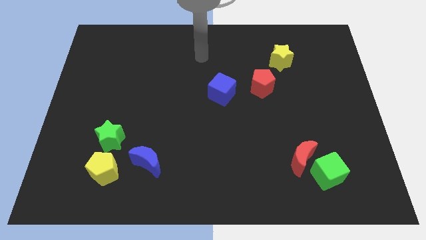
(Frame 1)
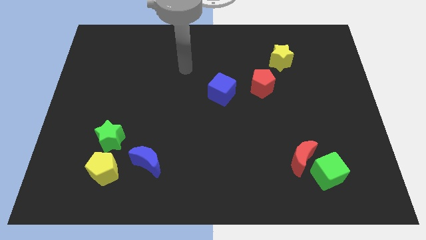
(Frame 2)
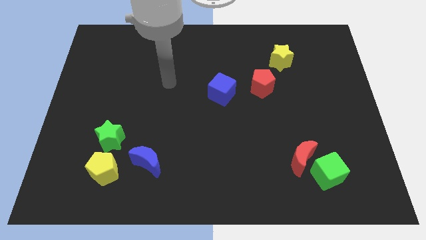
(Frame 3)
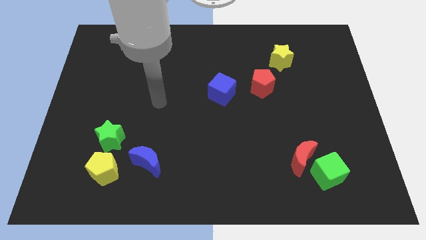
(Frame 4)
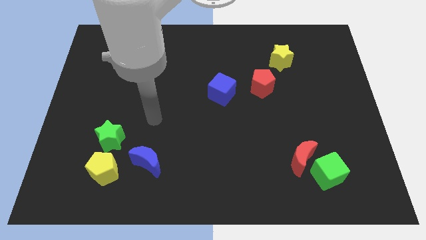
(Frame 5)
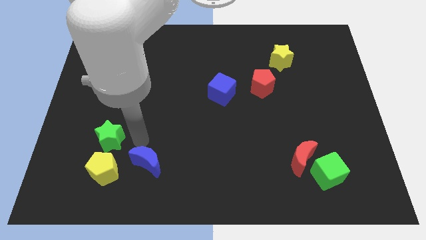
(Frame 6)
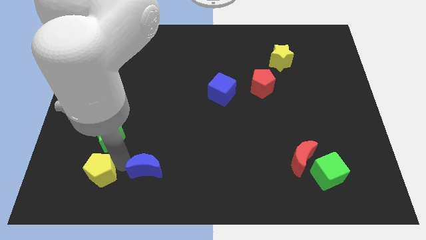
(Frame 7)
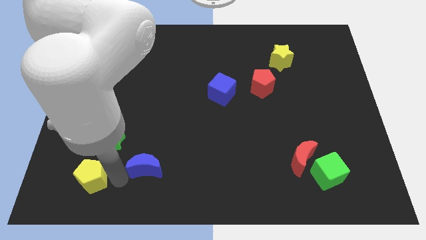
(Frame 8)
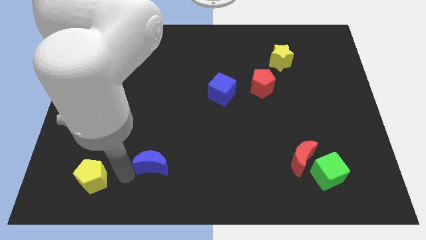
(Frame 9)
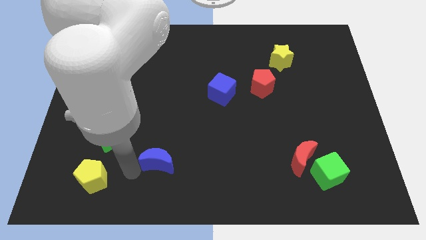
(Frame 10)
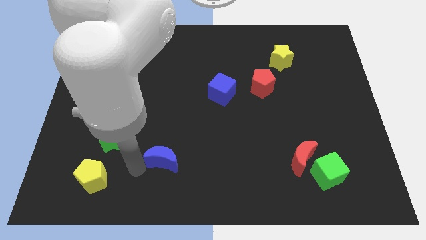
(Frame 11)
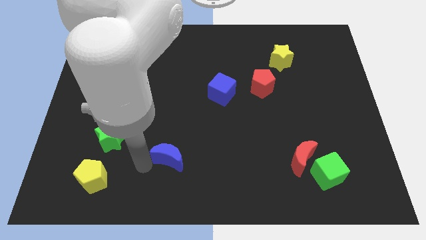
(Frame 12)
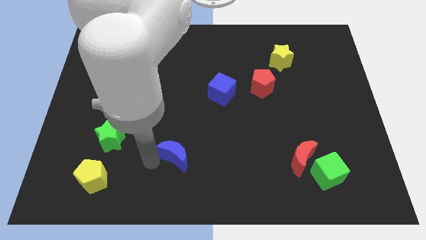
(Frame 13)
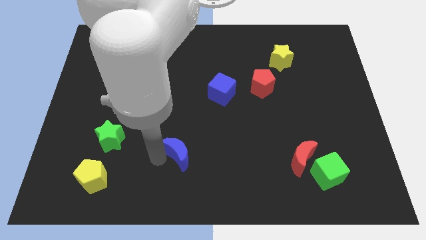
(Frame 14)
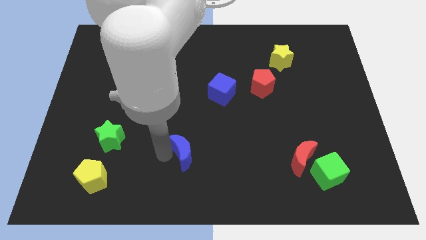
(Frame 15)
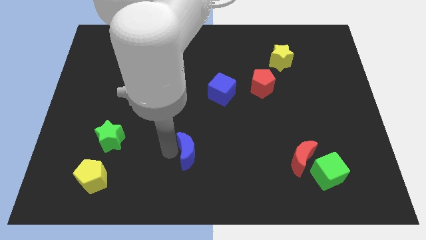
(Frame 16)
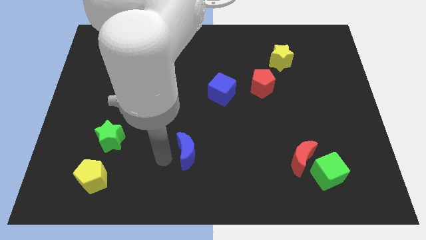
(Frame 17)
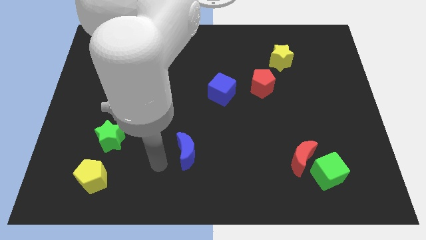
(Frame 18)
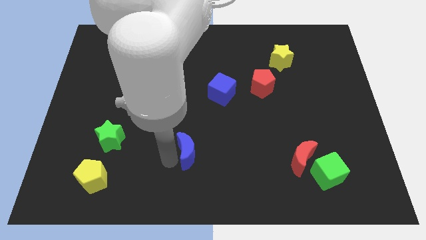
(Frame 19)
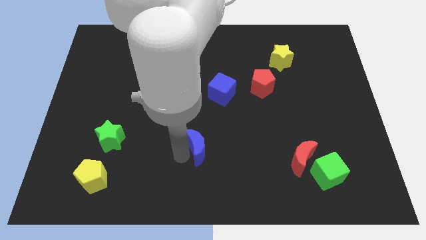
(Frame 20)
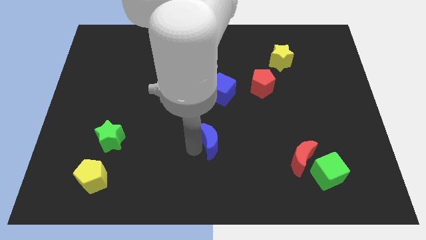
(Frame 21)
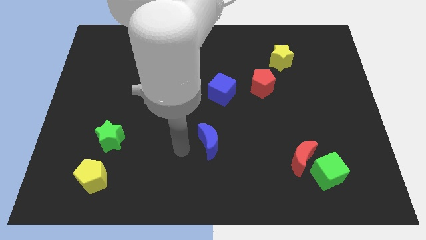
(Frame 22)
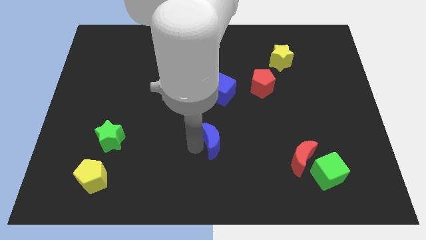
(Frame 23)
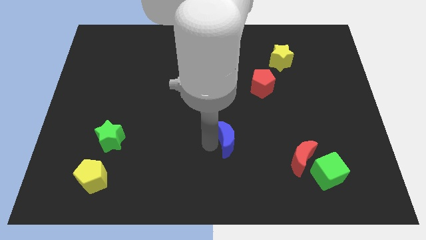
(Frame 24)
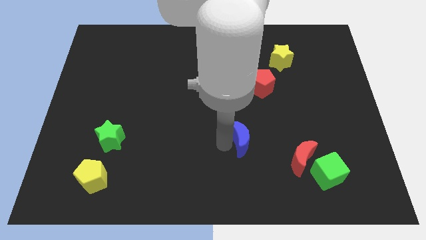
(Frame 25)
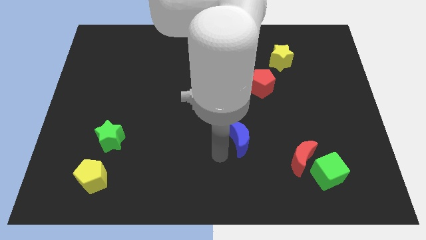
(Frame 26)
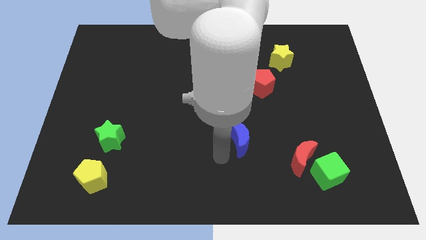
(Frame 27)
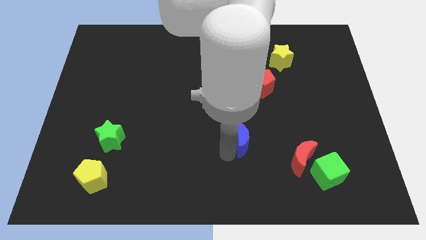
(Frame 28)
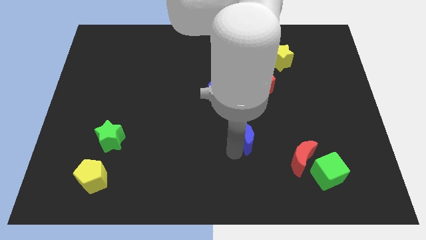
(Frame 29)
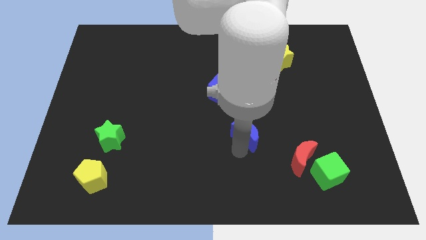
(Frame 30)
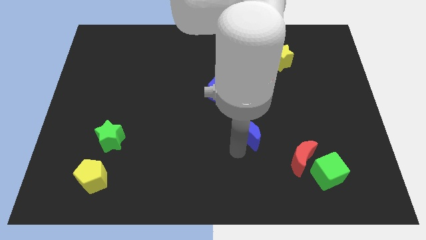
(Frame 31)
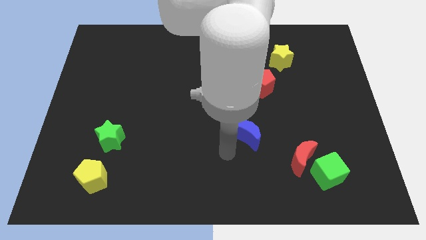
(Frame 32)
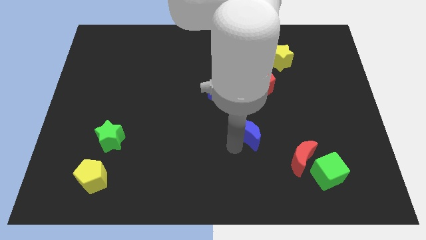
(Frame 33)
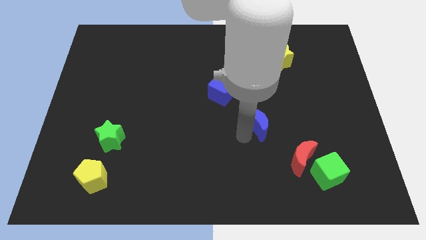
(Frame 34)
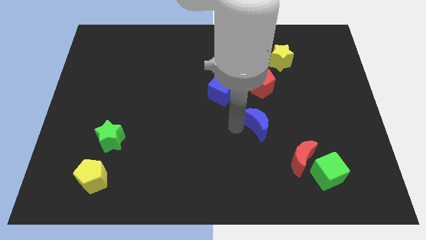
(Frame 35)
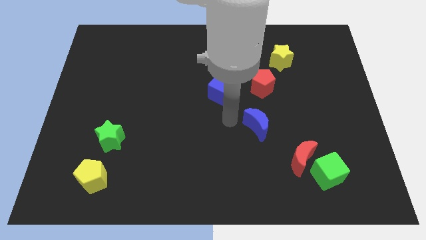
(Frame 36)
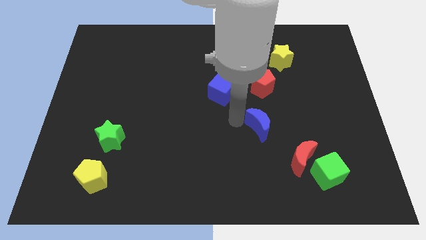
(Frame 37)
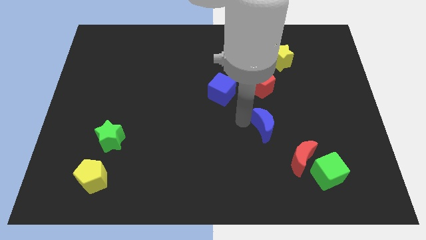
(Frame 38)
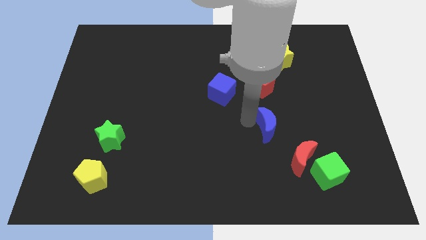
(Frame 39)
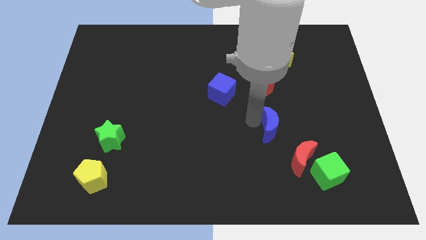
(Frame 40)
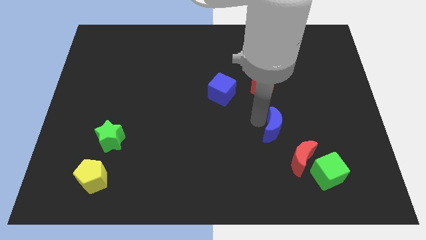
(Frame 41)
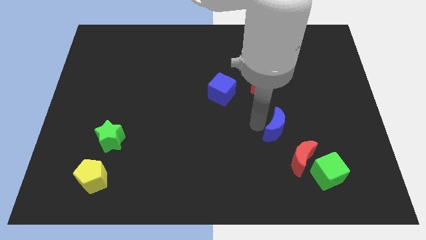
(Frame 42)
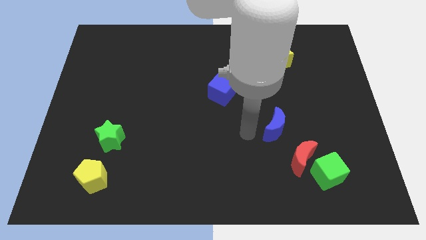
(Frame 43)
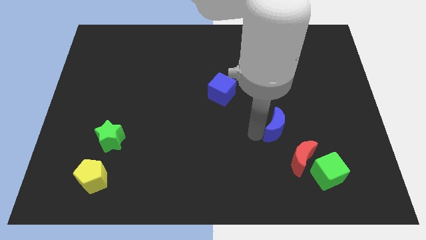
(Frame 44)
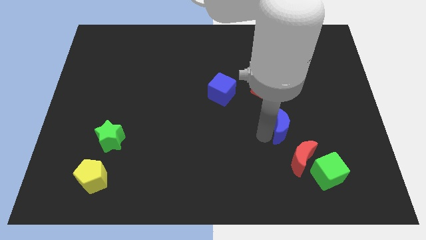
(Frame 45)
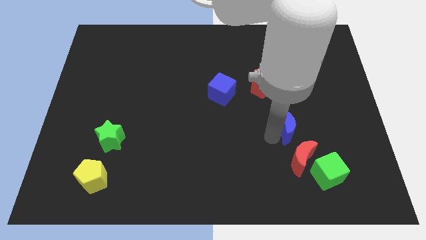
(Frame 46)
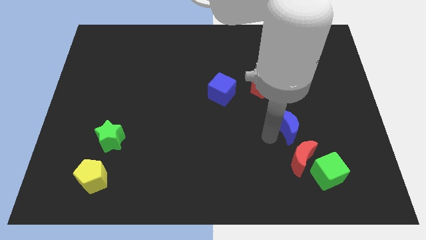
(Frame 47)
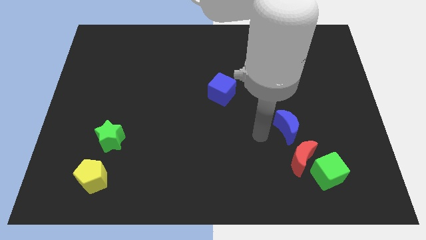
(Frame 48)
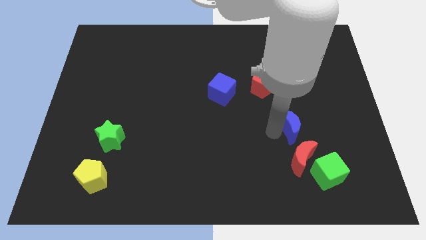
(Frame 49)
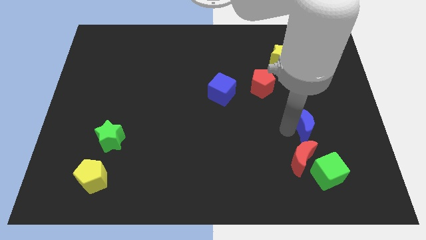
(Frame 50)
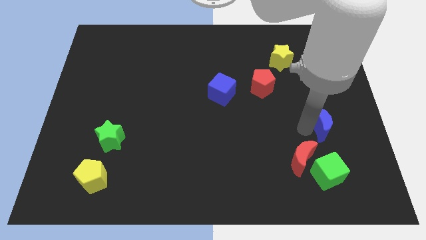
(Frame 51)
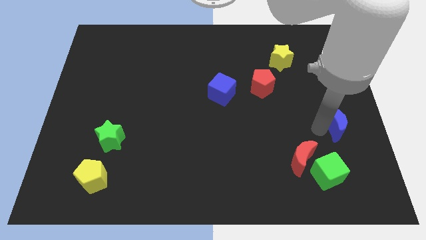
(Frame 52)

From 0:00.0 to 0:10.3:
slide the blue moon to the right side

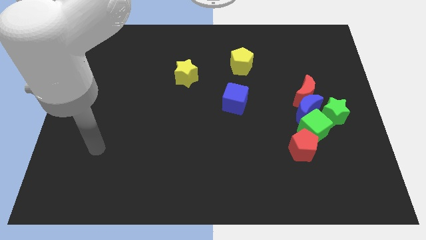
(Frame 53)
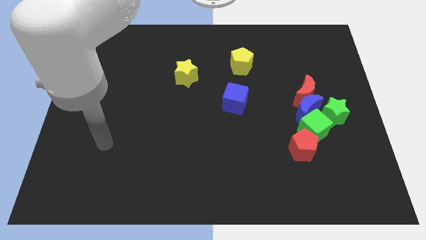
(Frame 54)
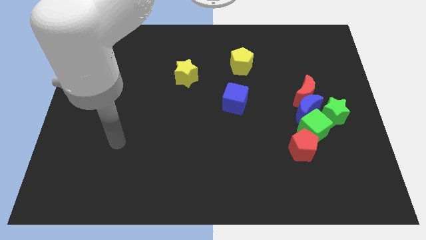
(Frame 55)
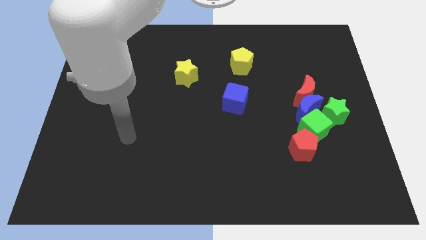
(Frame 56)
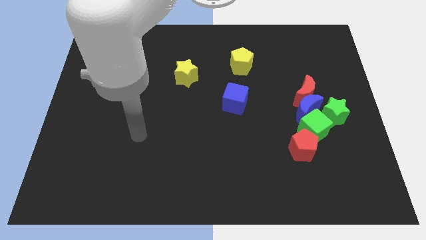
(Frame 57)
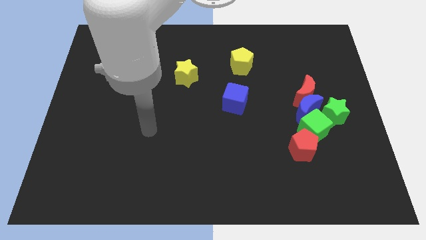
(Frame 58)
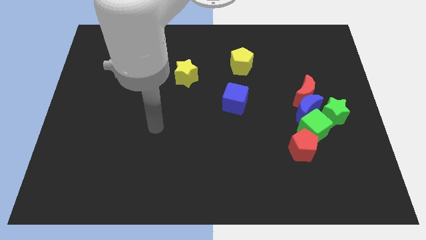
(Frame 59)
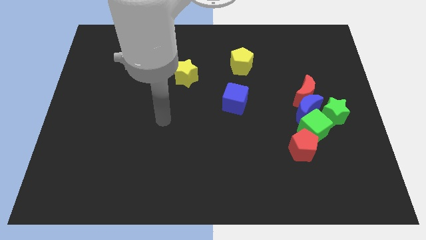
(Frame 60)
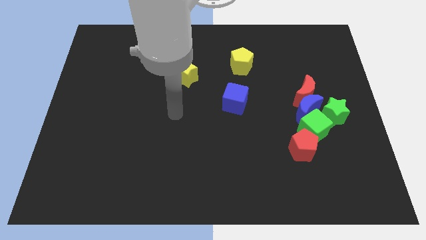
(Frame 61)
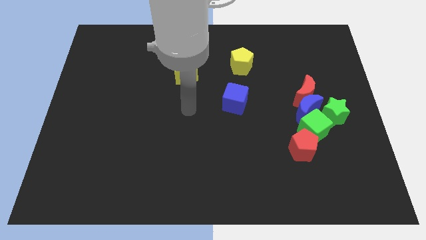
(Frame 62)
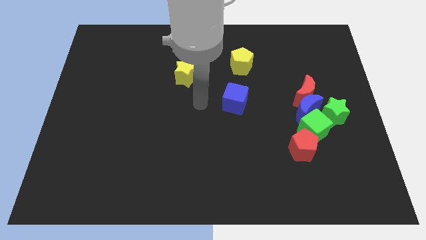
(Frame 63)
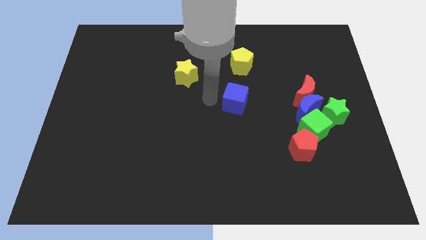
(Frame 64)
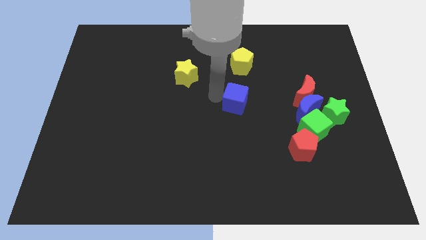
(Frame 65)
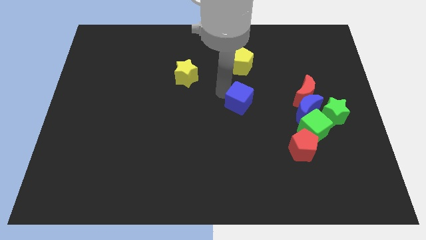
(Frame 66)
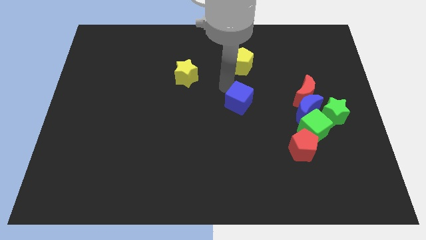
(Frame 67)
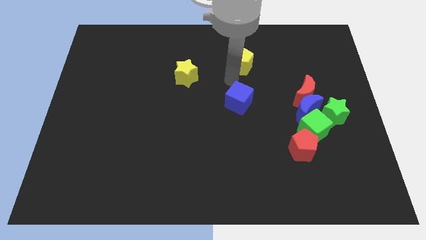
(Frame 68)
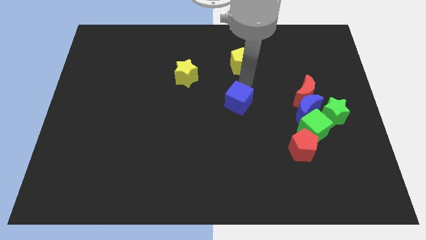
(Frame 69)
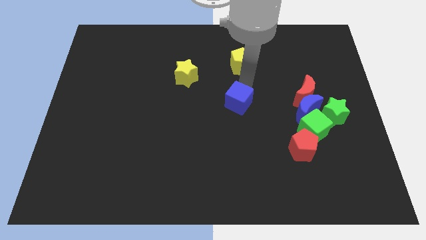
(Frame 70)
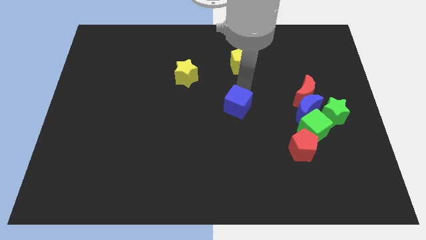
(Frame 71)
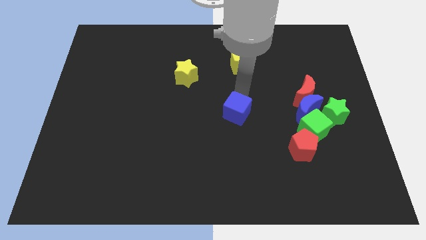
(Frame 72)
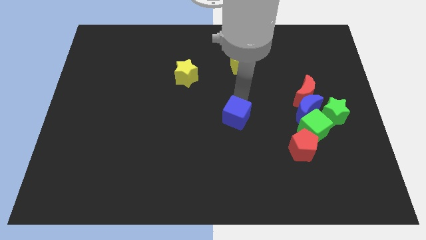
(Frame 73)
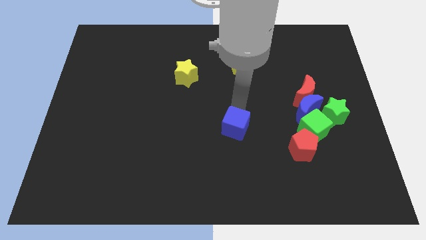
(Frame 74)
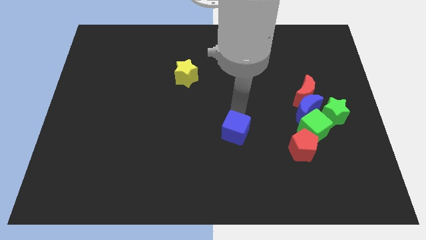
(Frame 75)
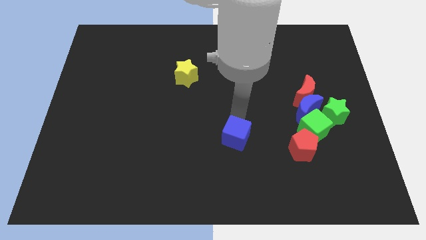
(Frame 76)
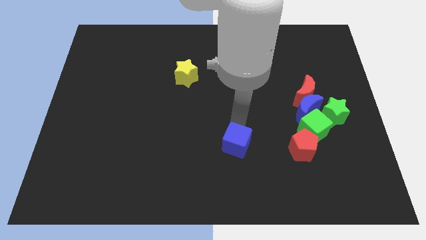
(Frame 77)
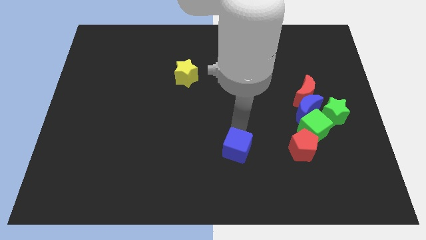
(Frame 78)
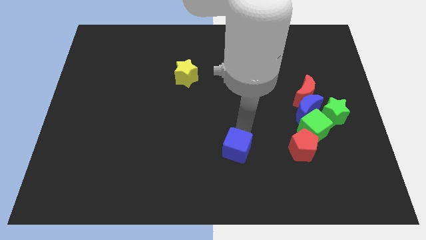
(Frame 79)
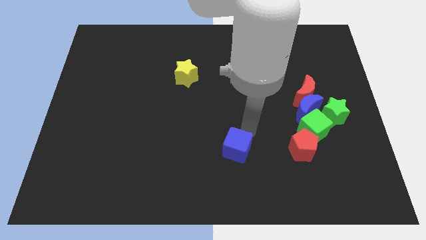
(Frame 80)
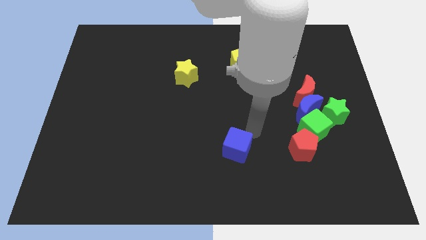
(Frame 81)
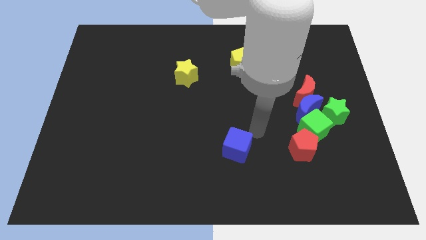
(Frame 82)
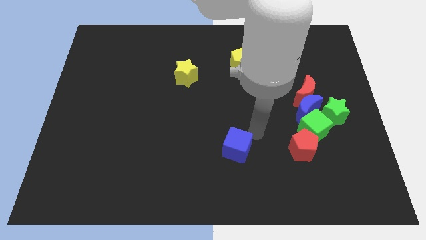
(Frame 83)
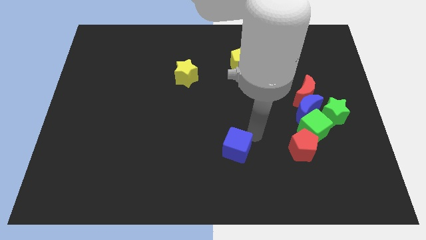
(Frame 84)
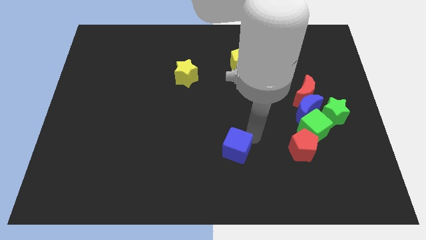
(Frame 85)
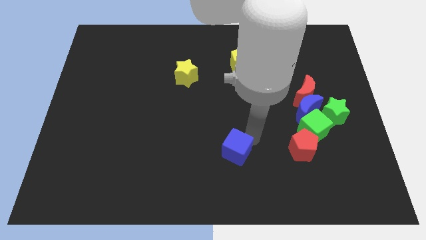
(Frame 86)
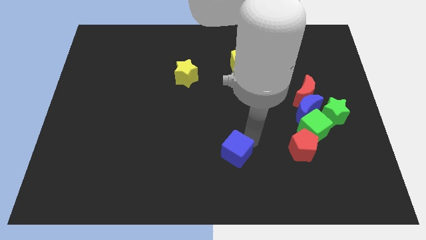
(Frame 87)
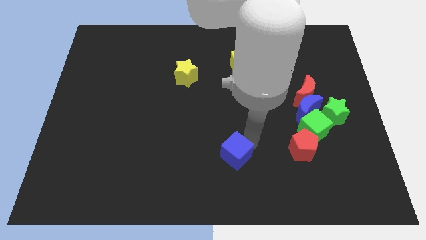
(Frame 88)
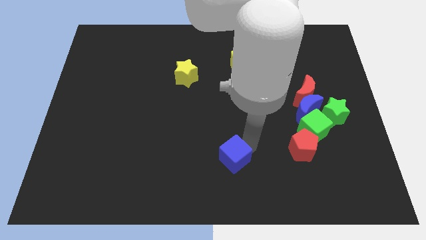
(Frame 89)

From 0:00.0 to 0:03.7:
move the blue cube to the bottom
